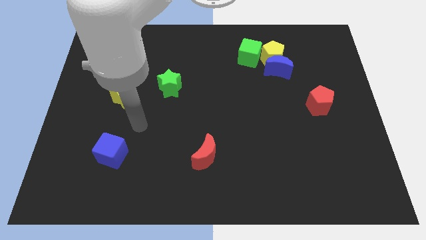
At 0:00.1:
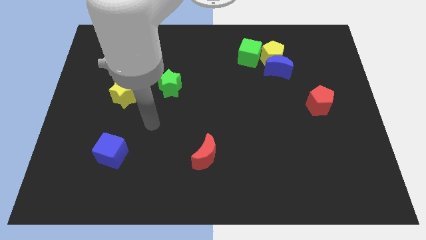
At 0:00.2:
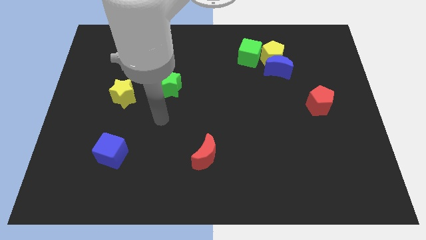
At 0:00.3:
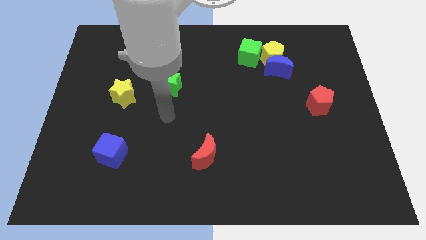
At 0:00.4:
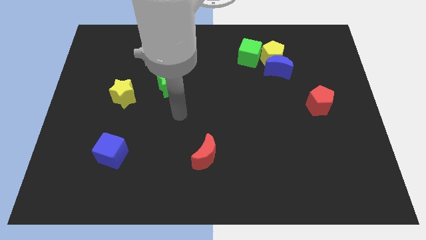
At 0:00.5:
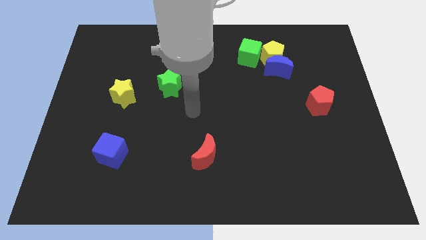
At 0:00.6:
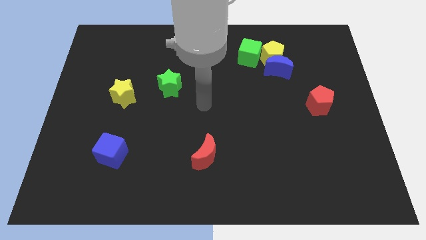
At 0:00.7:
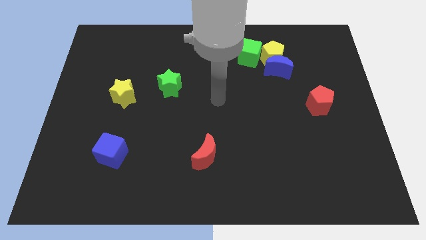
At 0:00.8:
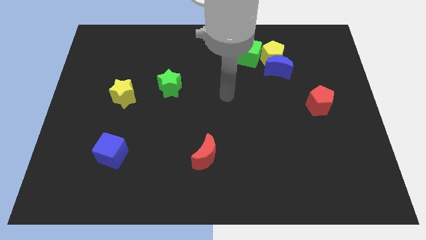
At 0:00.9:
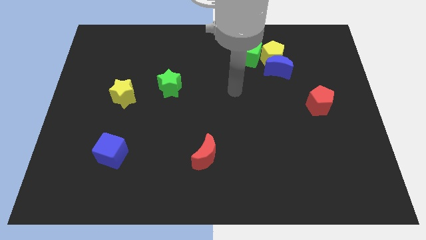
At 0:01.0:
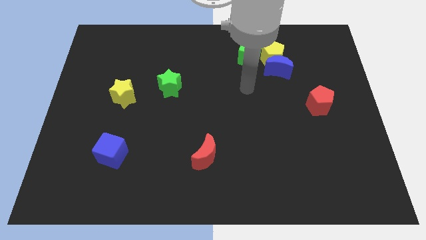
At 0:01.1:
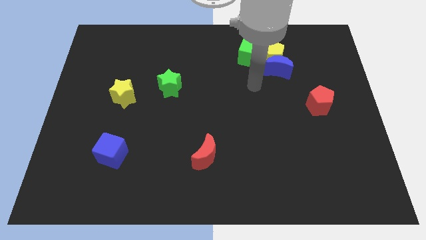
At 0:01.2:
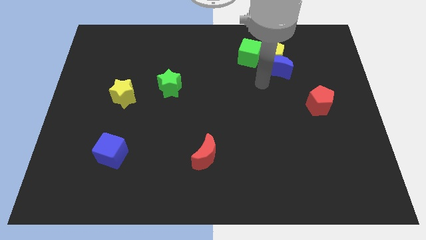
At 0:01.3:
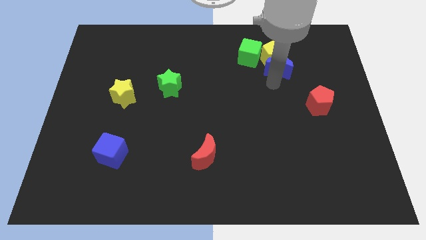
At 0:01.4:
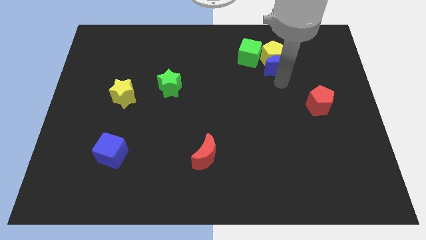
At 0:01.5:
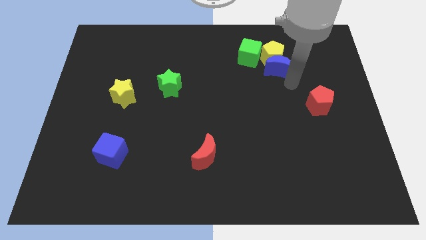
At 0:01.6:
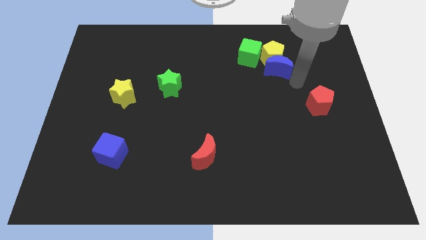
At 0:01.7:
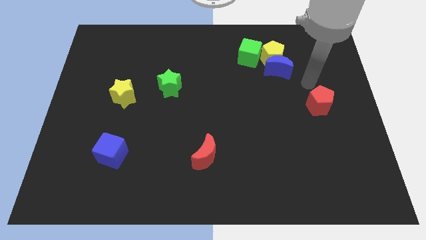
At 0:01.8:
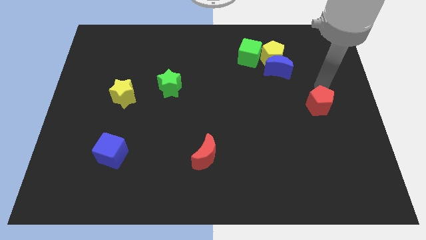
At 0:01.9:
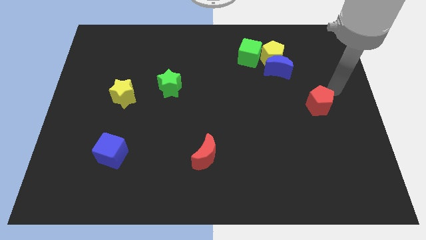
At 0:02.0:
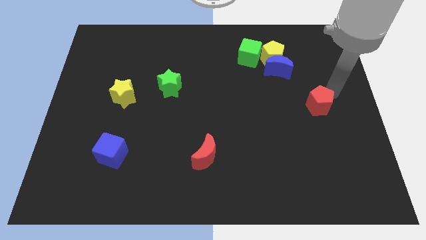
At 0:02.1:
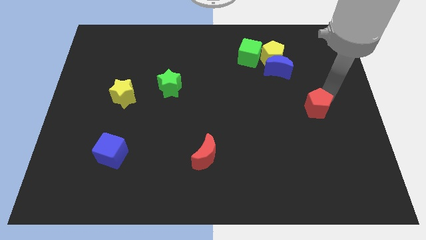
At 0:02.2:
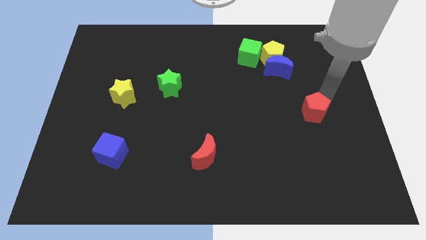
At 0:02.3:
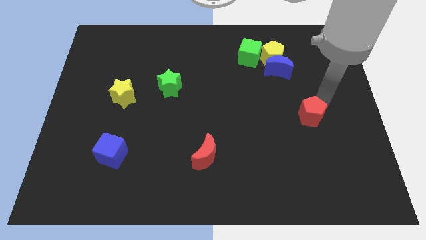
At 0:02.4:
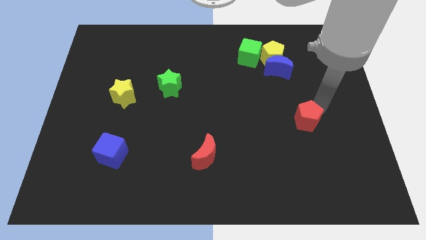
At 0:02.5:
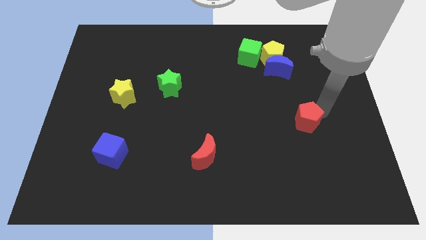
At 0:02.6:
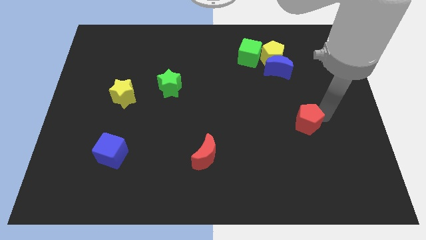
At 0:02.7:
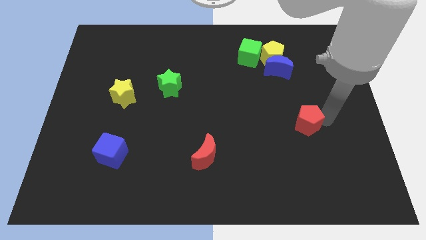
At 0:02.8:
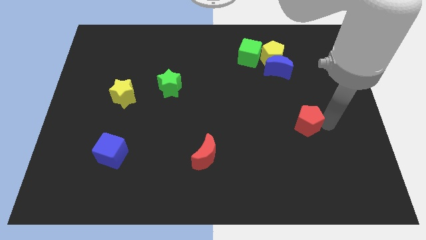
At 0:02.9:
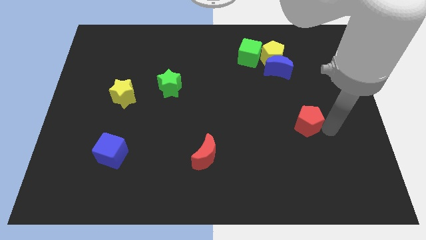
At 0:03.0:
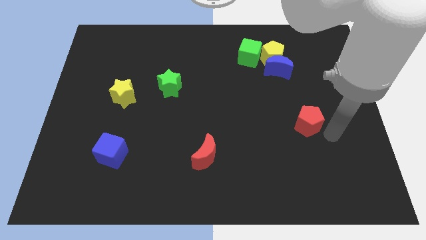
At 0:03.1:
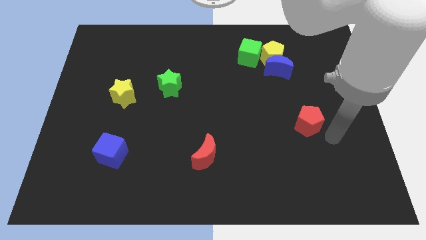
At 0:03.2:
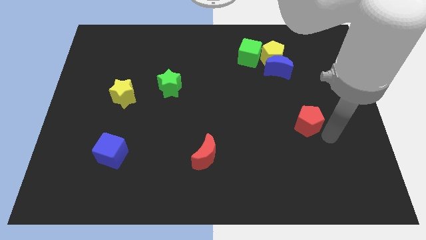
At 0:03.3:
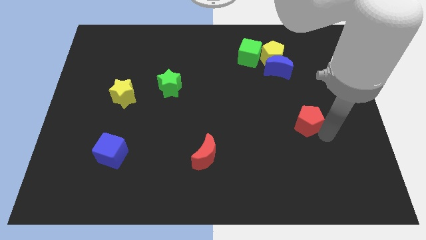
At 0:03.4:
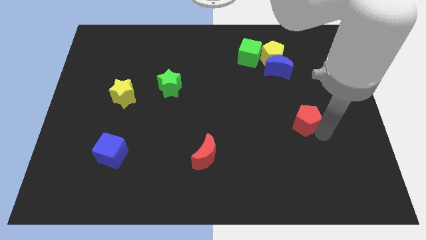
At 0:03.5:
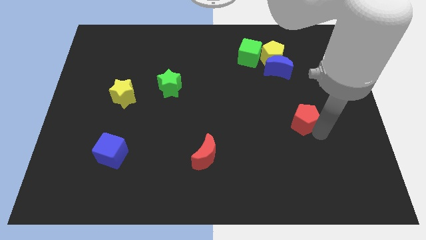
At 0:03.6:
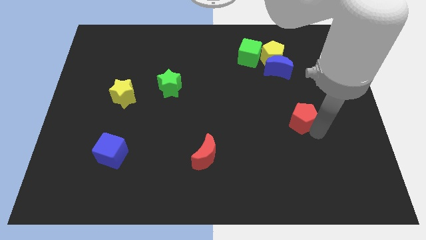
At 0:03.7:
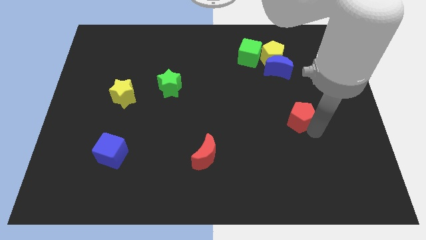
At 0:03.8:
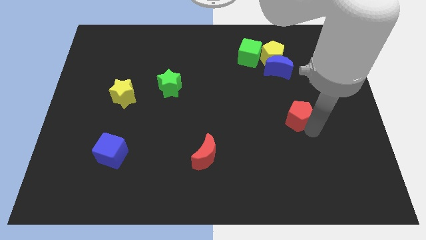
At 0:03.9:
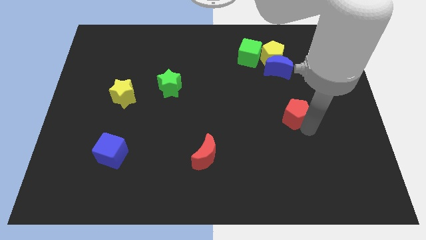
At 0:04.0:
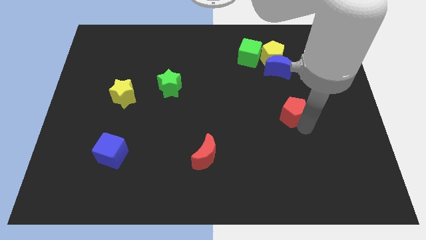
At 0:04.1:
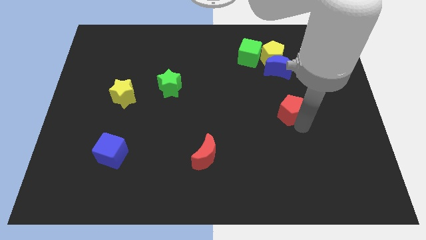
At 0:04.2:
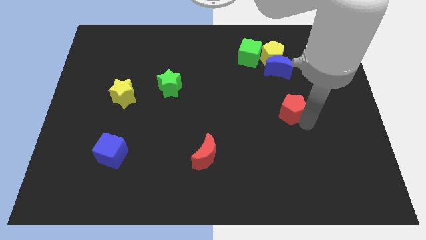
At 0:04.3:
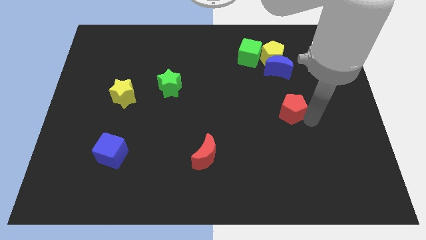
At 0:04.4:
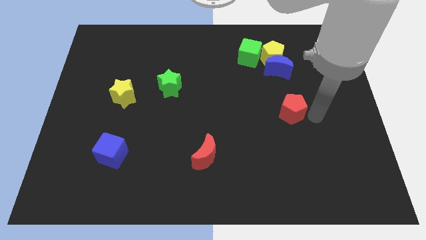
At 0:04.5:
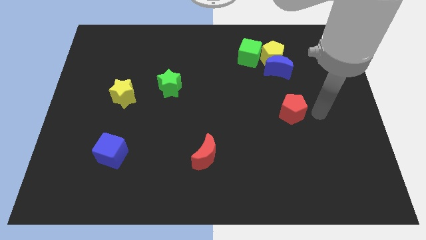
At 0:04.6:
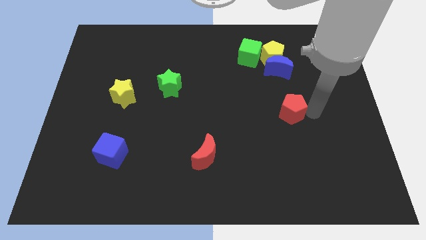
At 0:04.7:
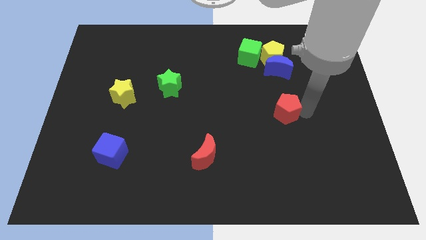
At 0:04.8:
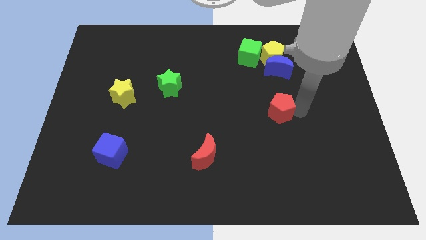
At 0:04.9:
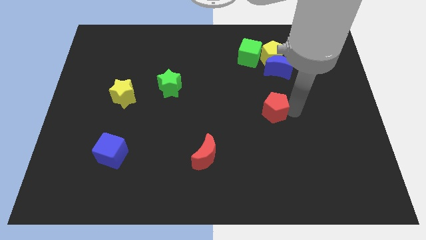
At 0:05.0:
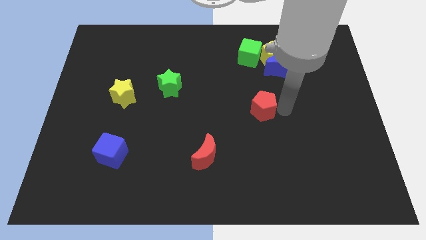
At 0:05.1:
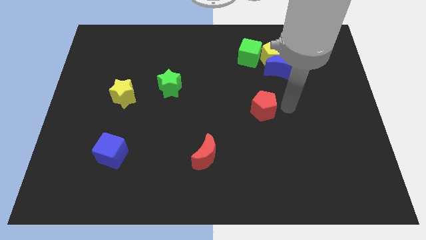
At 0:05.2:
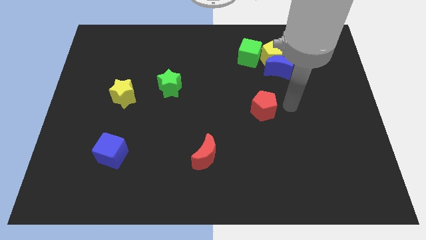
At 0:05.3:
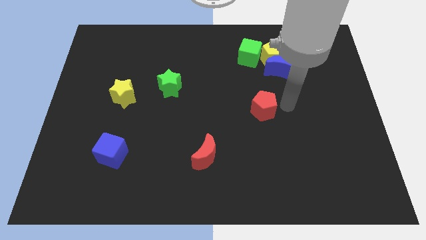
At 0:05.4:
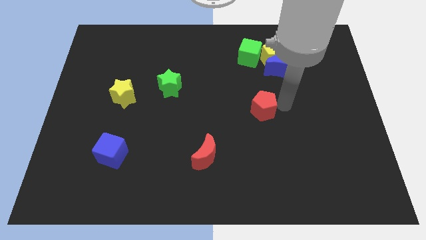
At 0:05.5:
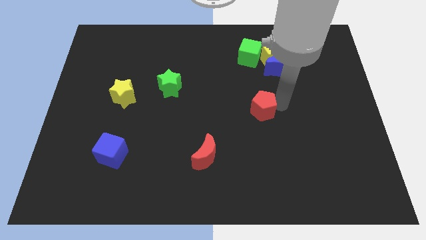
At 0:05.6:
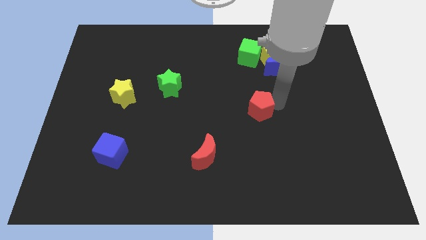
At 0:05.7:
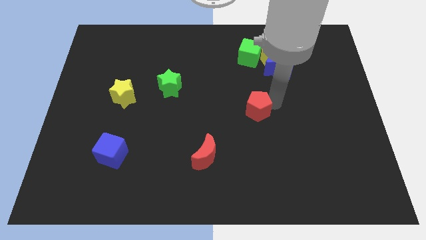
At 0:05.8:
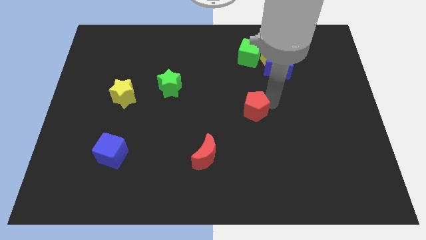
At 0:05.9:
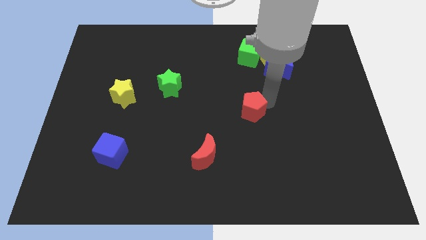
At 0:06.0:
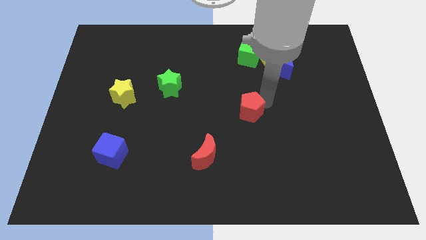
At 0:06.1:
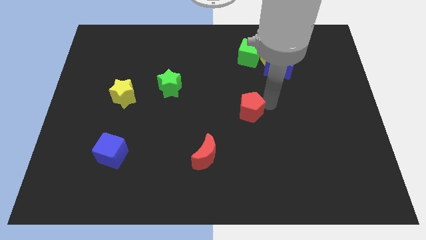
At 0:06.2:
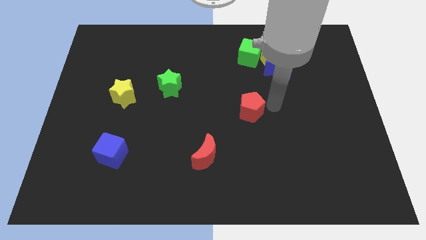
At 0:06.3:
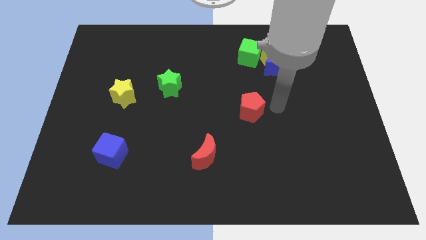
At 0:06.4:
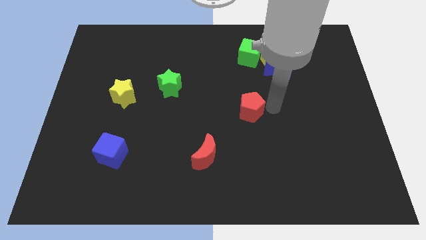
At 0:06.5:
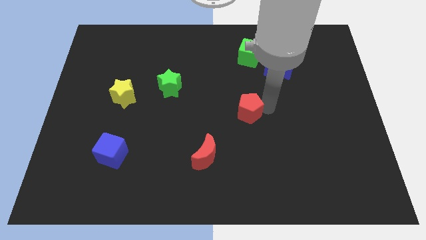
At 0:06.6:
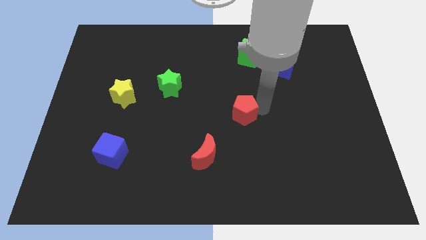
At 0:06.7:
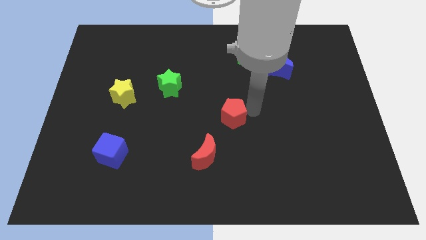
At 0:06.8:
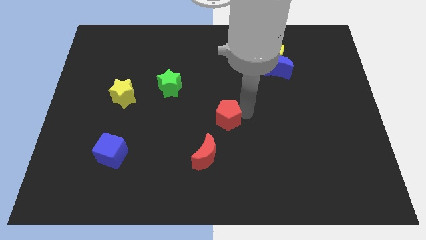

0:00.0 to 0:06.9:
move the red pentagon above the red moon

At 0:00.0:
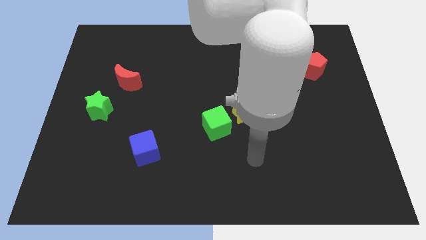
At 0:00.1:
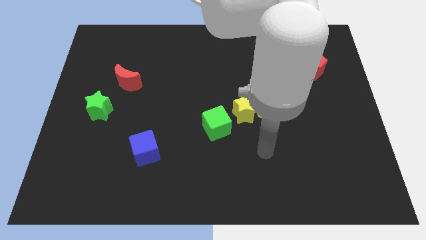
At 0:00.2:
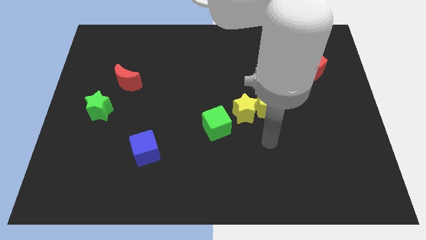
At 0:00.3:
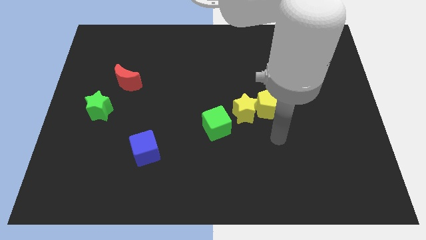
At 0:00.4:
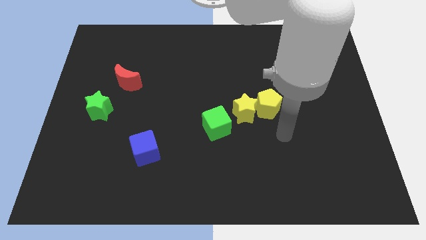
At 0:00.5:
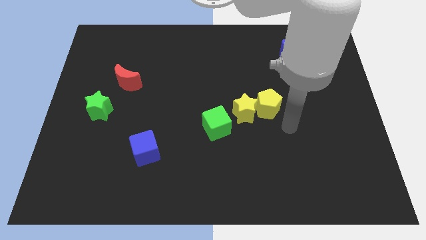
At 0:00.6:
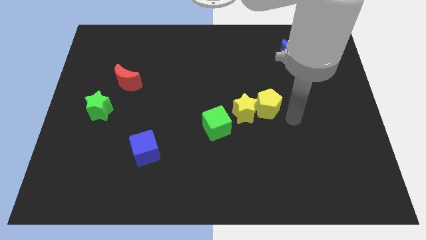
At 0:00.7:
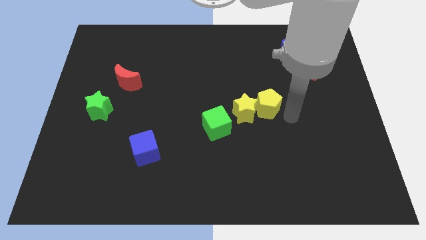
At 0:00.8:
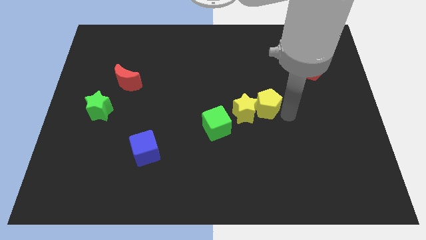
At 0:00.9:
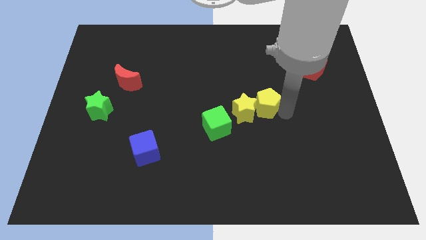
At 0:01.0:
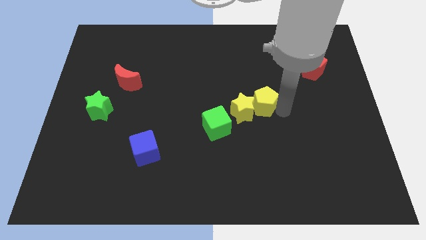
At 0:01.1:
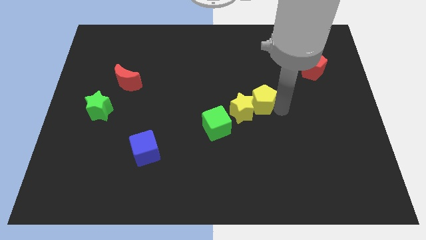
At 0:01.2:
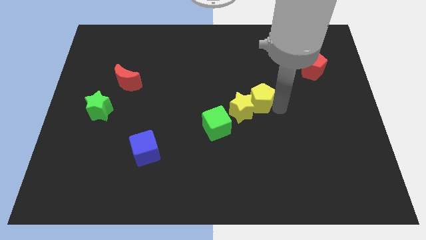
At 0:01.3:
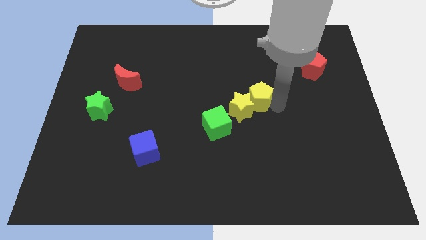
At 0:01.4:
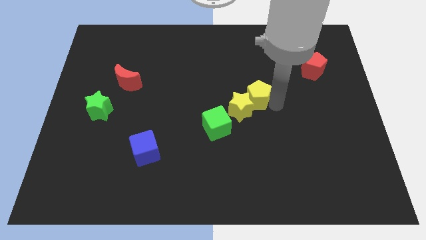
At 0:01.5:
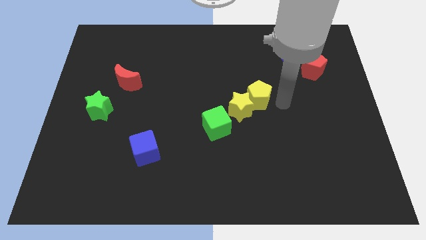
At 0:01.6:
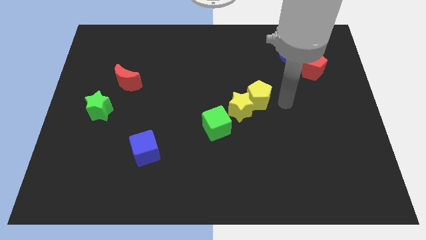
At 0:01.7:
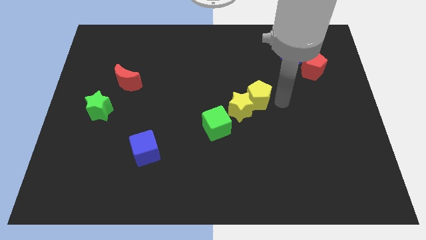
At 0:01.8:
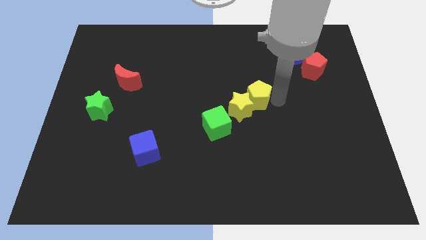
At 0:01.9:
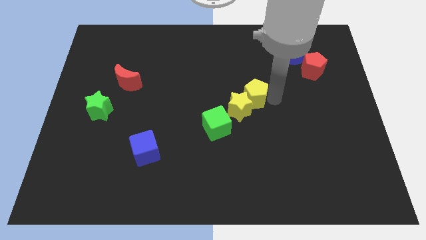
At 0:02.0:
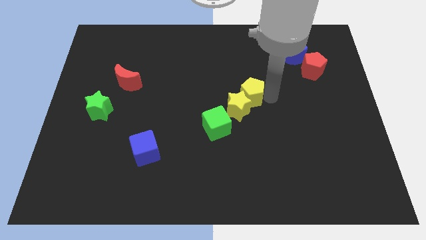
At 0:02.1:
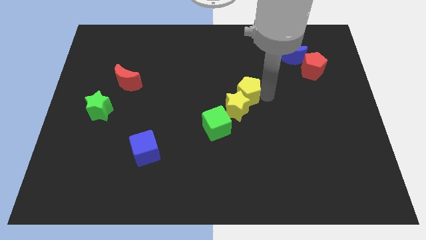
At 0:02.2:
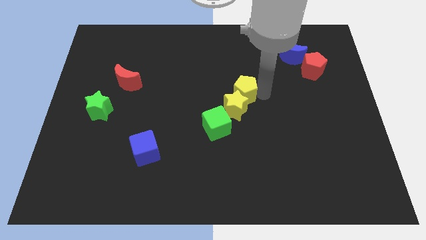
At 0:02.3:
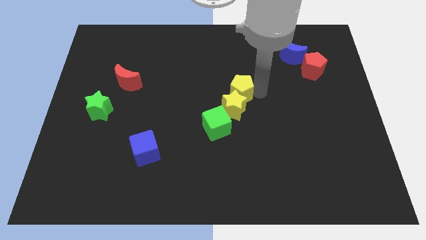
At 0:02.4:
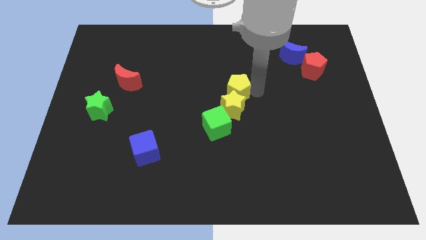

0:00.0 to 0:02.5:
push the yellow pentagon to the top left of the yellow star
